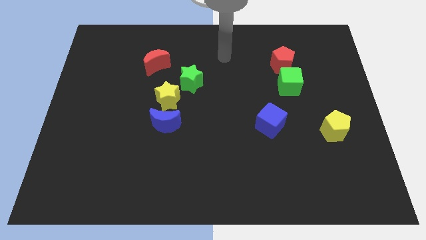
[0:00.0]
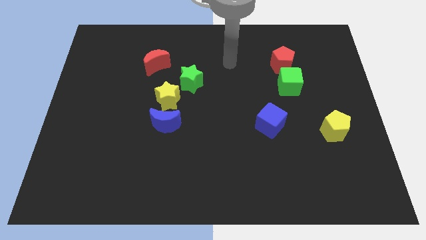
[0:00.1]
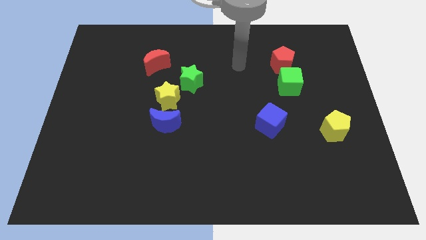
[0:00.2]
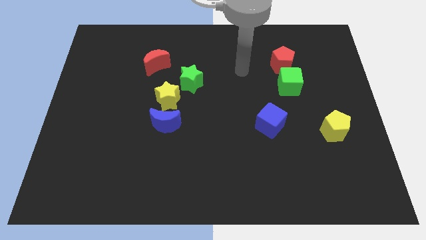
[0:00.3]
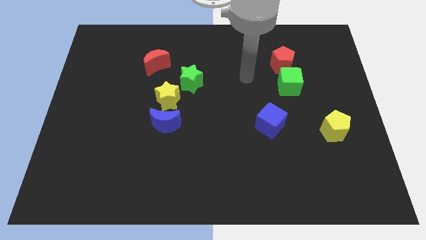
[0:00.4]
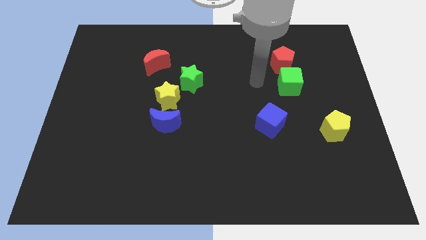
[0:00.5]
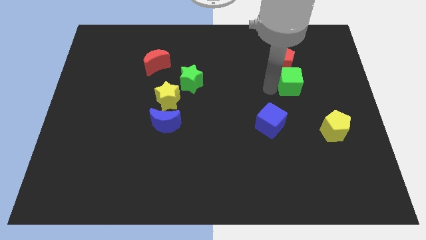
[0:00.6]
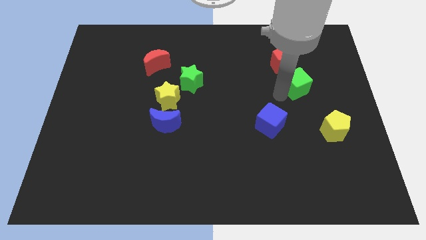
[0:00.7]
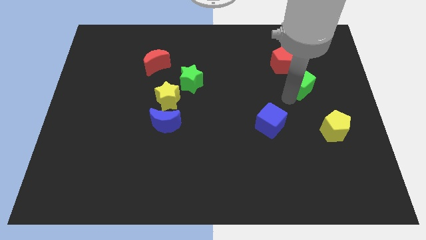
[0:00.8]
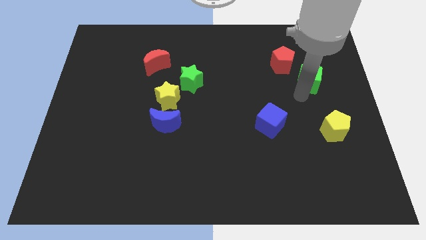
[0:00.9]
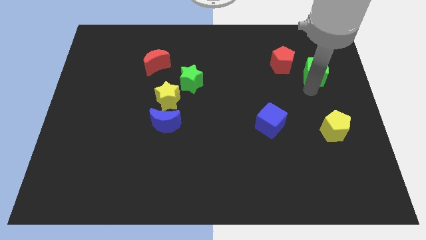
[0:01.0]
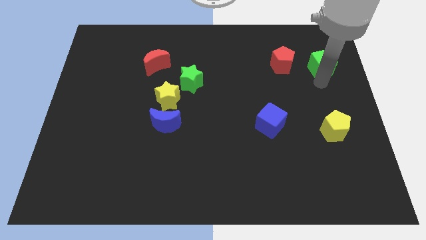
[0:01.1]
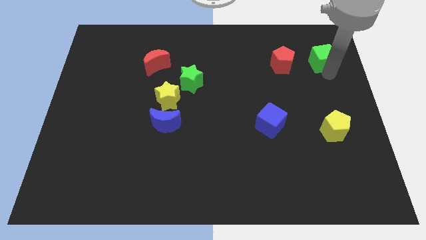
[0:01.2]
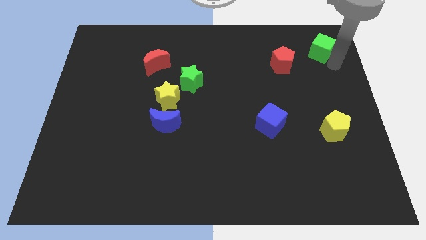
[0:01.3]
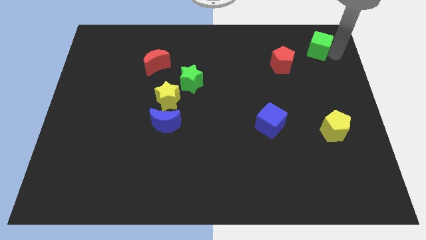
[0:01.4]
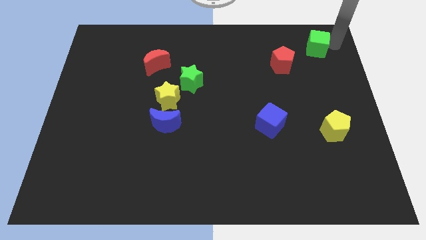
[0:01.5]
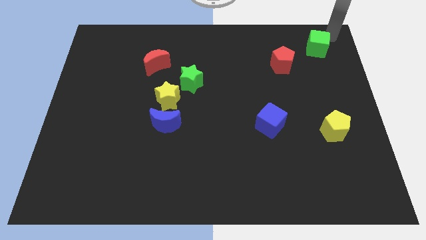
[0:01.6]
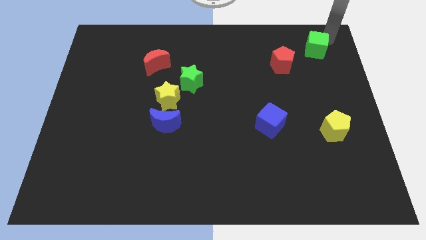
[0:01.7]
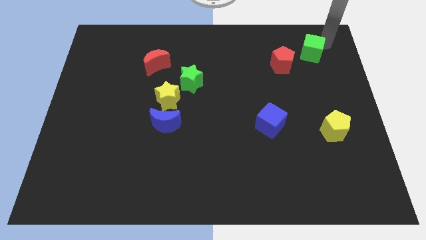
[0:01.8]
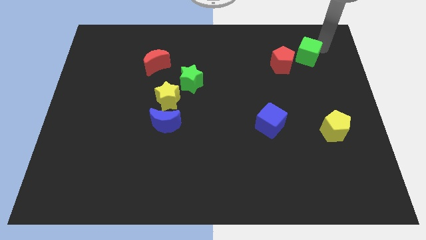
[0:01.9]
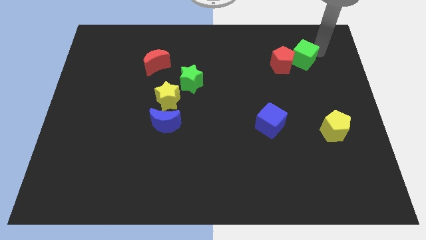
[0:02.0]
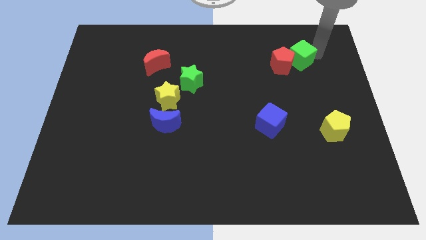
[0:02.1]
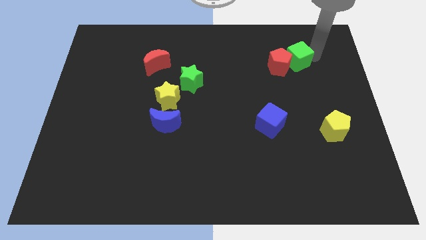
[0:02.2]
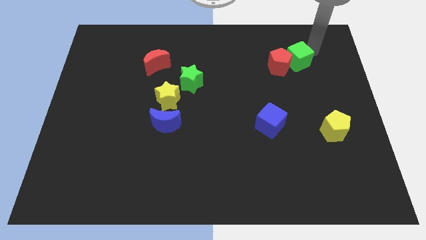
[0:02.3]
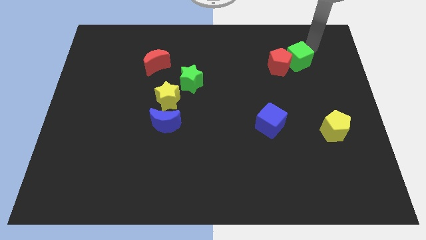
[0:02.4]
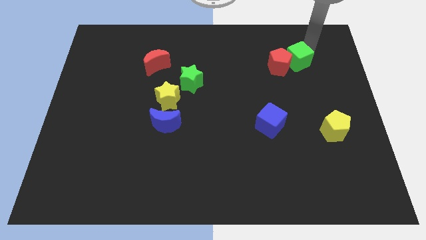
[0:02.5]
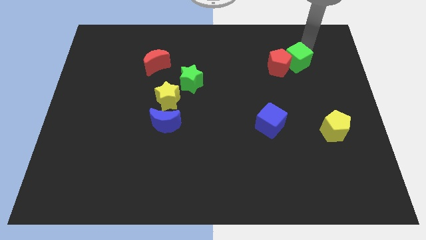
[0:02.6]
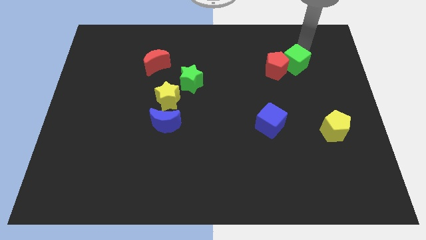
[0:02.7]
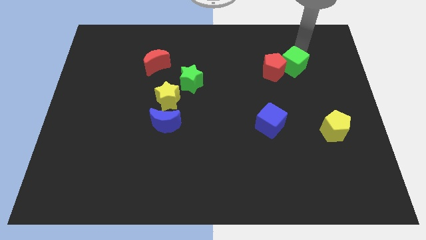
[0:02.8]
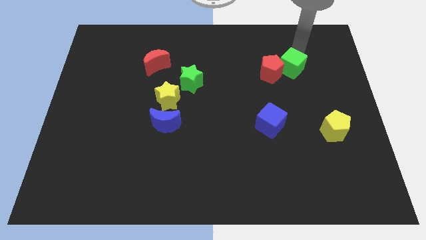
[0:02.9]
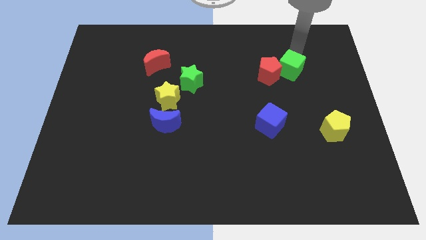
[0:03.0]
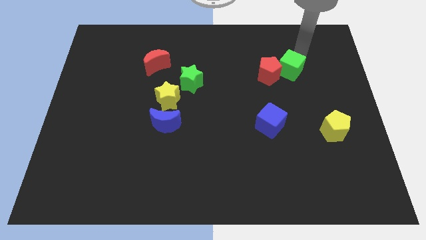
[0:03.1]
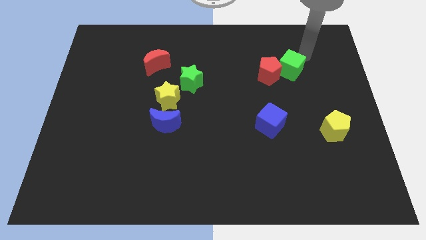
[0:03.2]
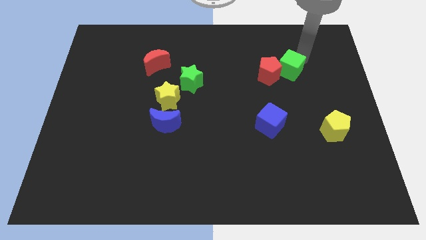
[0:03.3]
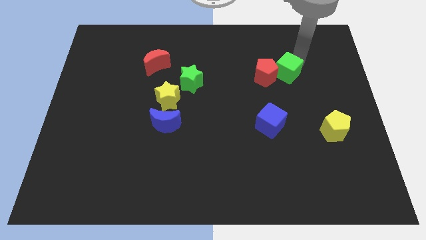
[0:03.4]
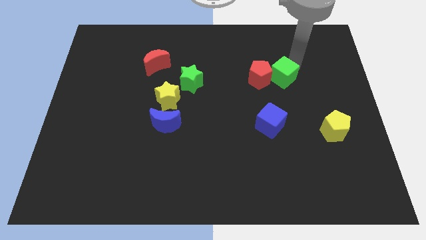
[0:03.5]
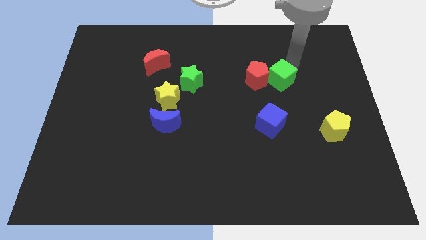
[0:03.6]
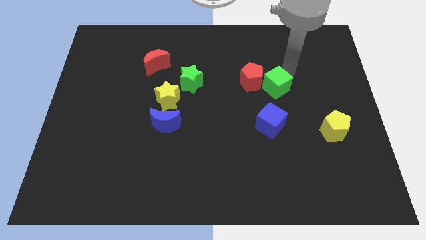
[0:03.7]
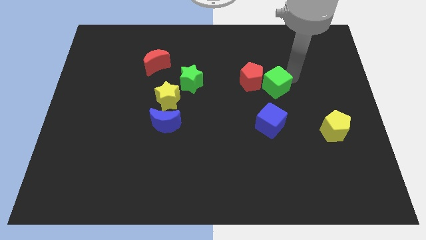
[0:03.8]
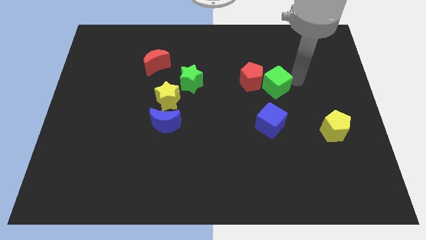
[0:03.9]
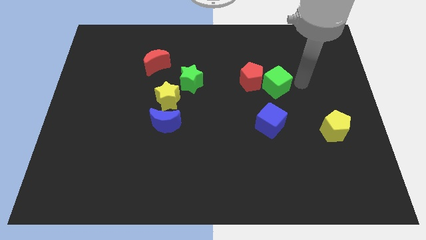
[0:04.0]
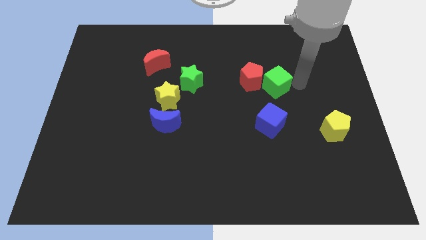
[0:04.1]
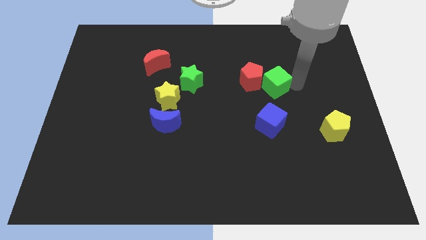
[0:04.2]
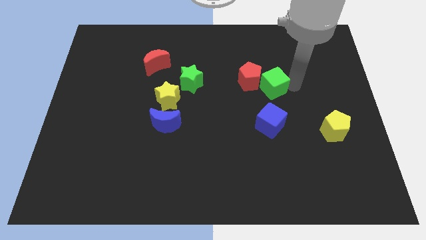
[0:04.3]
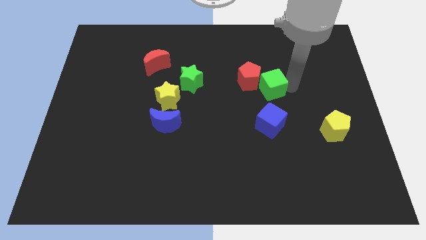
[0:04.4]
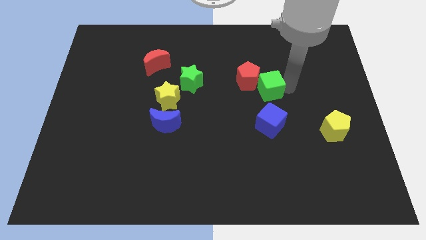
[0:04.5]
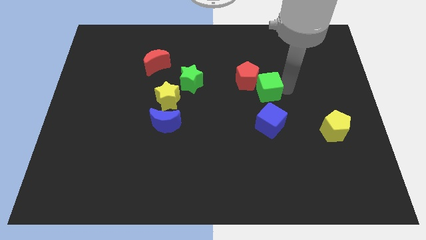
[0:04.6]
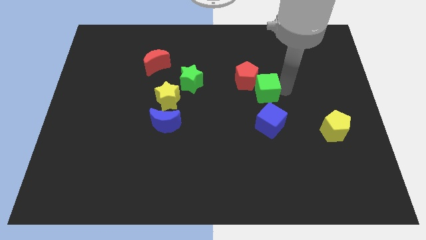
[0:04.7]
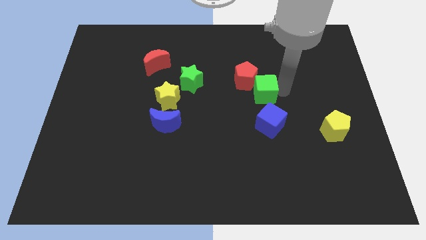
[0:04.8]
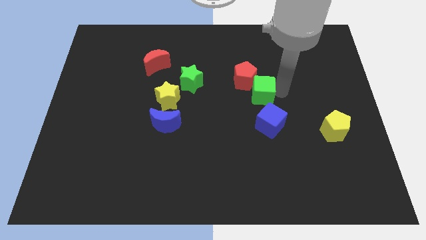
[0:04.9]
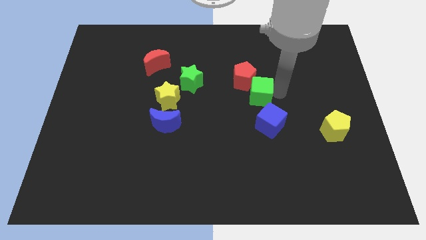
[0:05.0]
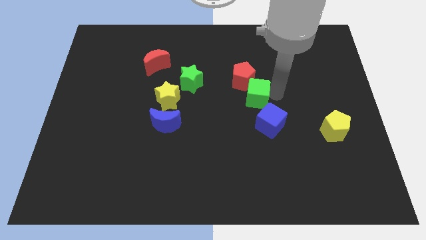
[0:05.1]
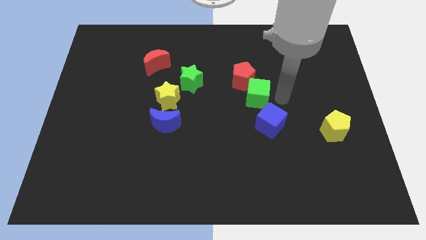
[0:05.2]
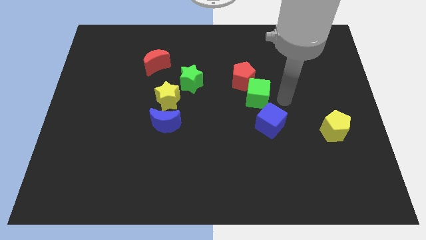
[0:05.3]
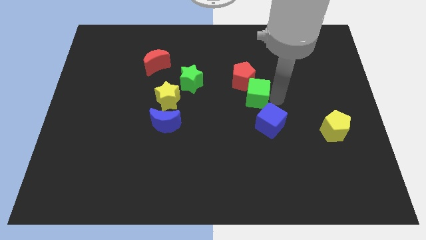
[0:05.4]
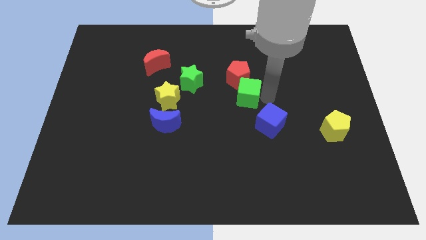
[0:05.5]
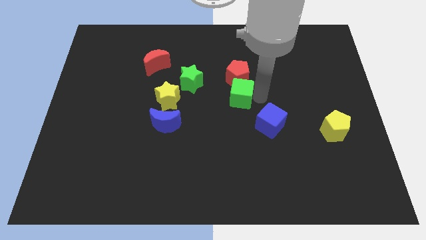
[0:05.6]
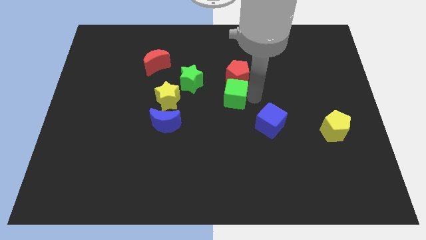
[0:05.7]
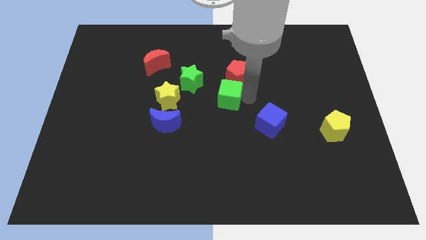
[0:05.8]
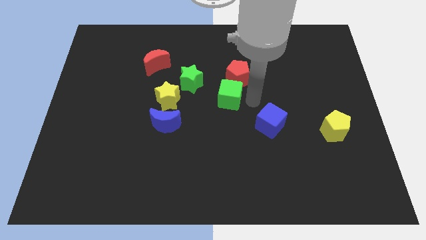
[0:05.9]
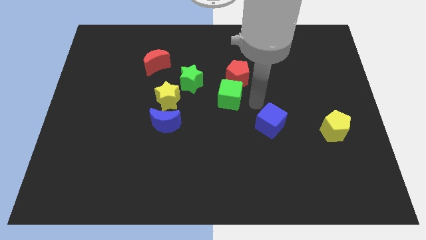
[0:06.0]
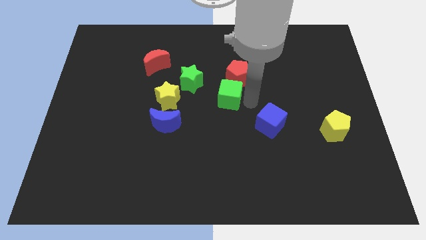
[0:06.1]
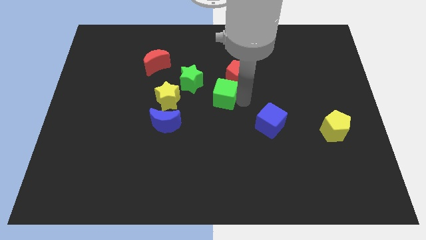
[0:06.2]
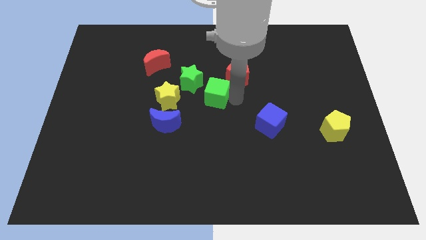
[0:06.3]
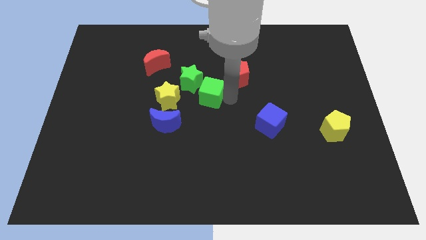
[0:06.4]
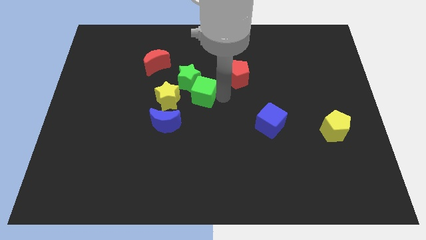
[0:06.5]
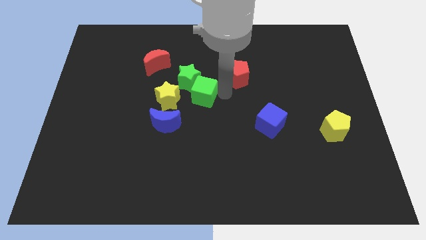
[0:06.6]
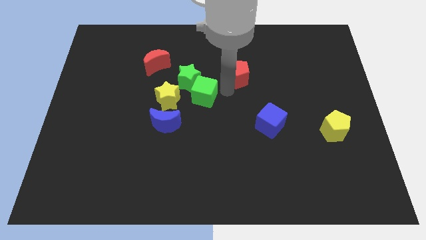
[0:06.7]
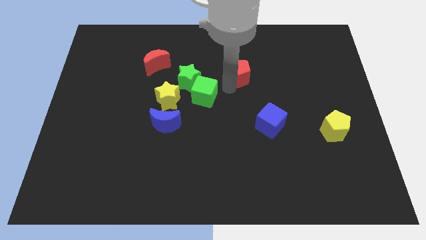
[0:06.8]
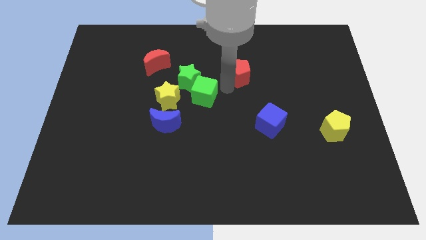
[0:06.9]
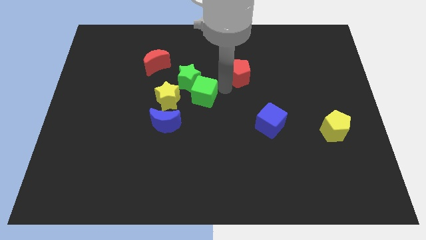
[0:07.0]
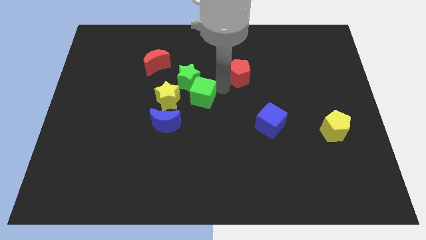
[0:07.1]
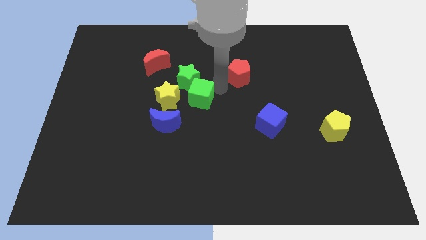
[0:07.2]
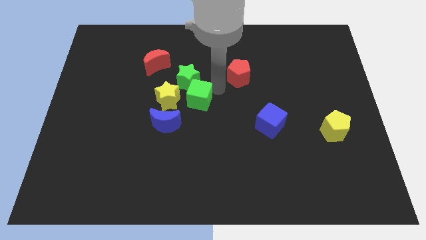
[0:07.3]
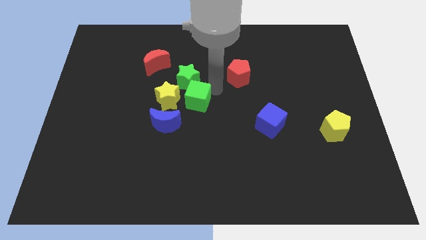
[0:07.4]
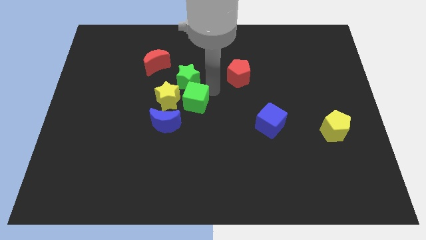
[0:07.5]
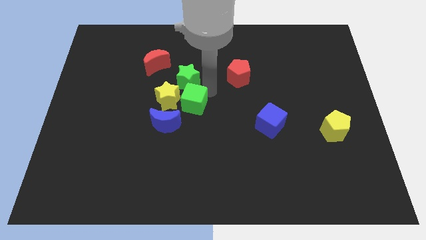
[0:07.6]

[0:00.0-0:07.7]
move the green cube to the yellow star

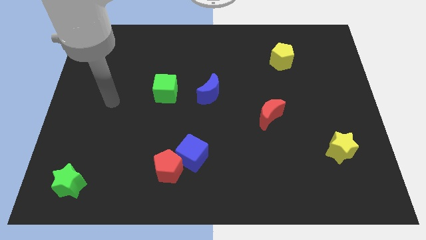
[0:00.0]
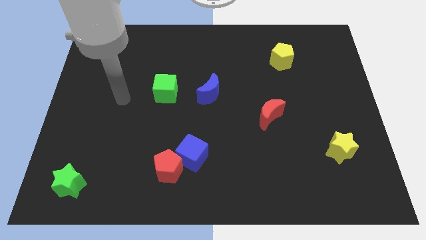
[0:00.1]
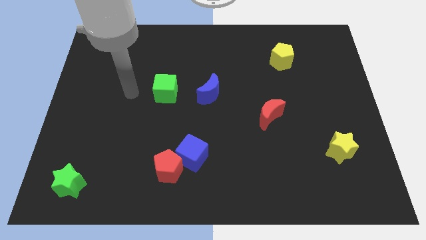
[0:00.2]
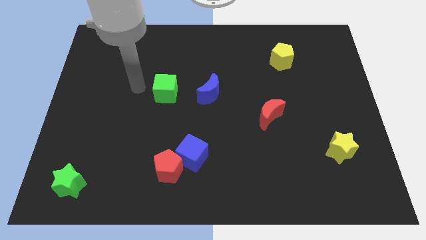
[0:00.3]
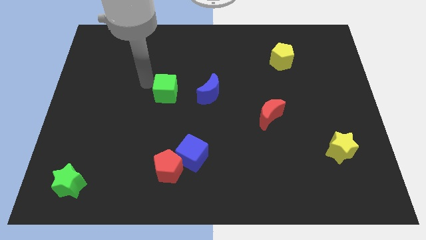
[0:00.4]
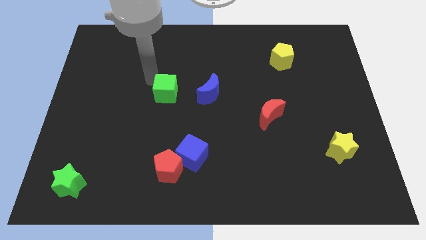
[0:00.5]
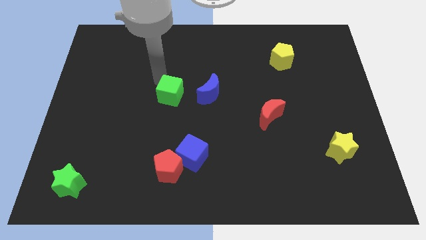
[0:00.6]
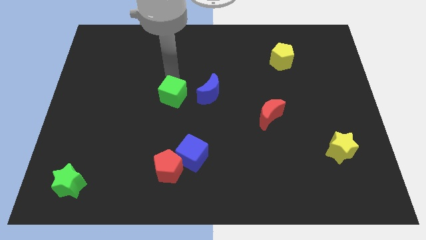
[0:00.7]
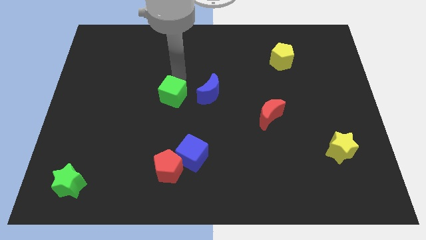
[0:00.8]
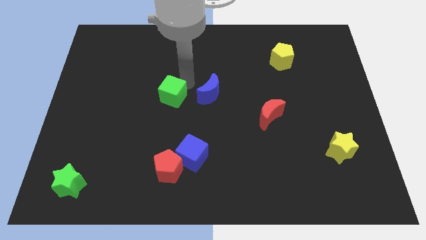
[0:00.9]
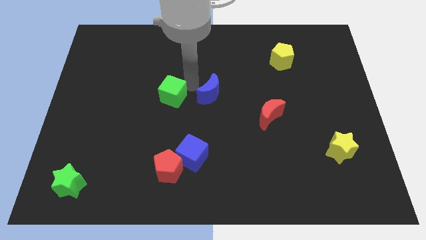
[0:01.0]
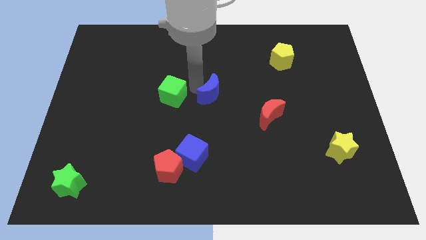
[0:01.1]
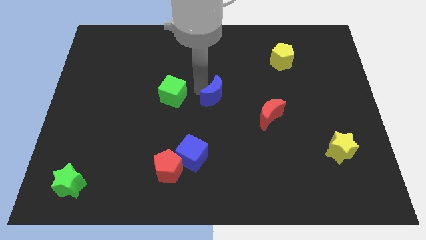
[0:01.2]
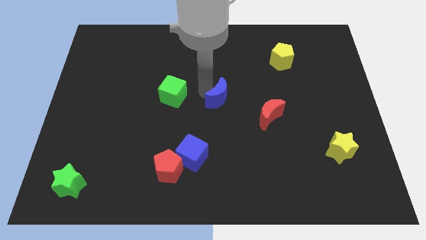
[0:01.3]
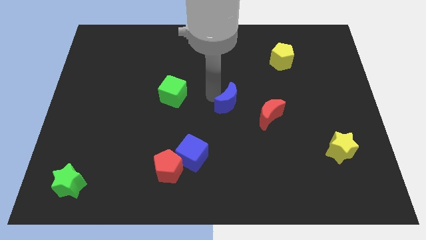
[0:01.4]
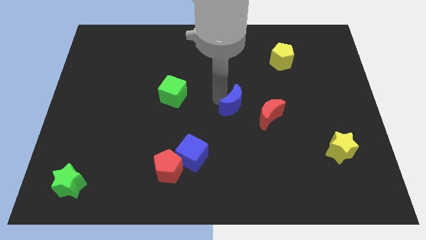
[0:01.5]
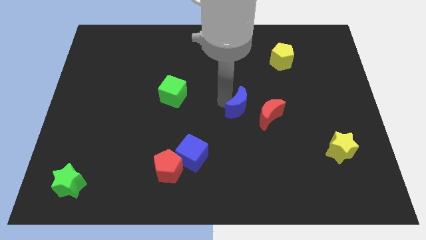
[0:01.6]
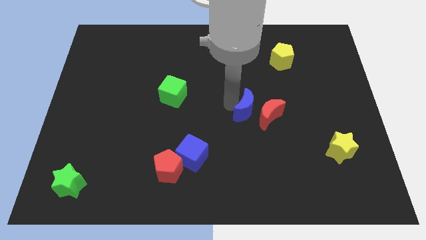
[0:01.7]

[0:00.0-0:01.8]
put the blue moon next to the red moon
